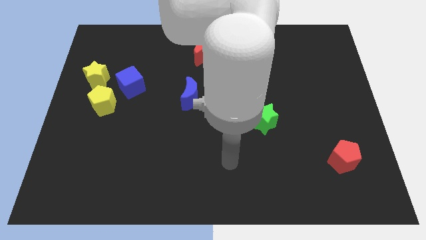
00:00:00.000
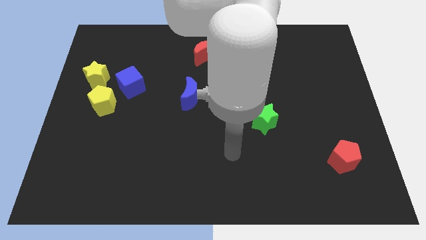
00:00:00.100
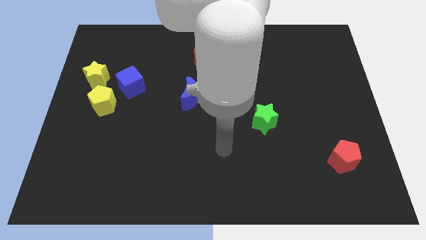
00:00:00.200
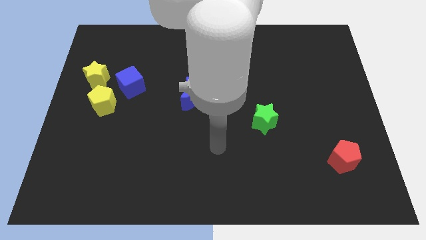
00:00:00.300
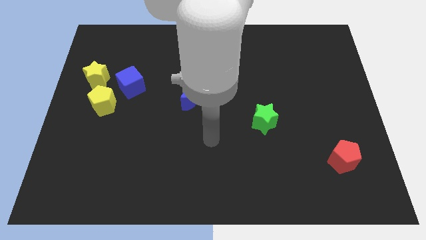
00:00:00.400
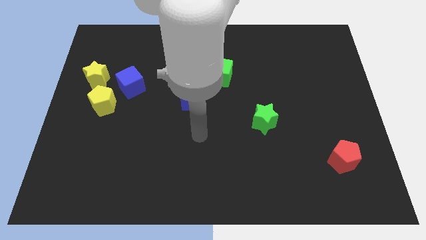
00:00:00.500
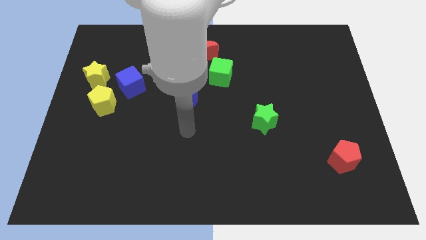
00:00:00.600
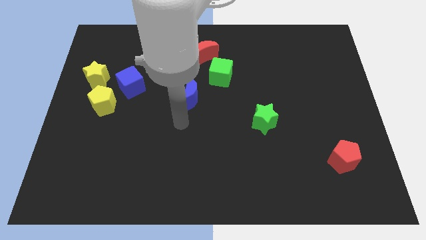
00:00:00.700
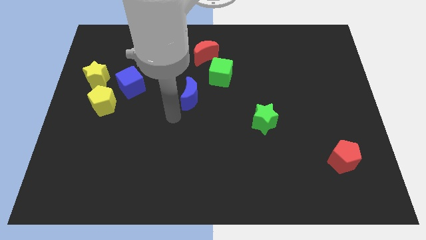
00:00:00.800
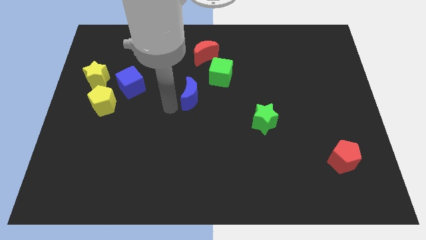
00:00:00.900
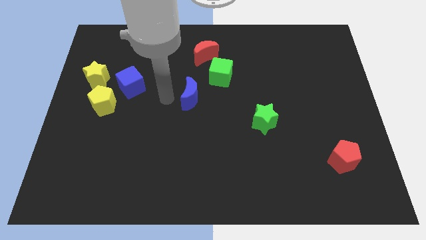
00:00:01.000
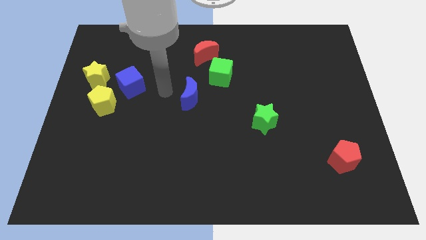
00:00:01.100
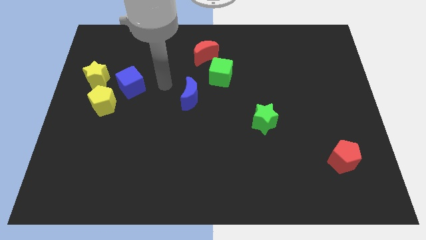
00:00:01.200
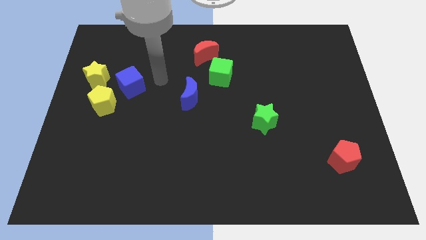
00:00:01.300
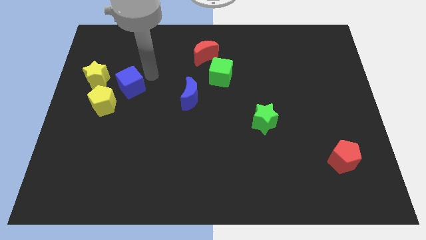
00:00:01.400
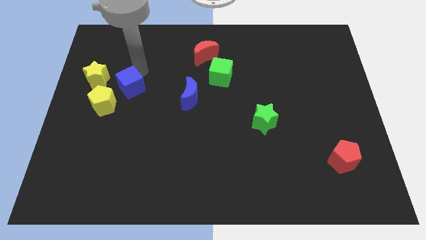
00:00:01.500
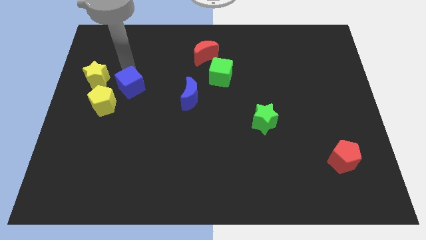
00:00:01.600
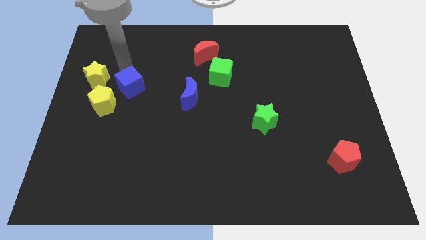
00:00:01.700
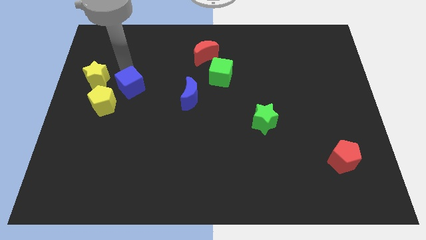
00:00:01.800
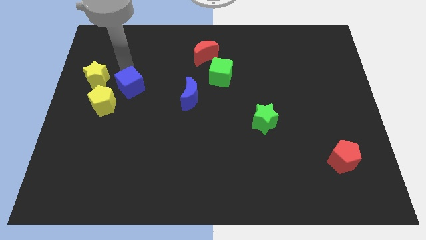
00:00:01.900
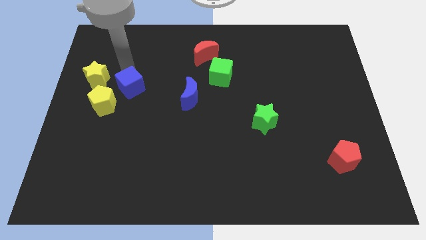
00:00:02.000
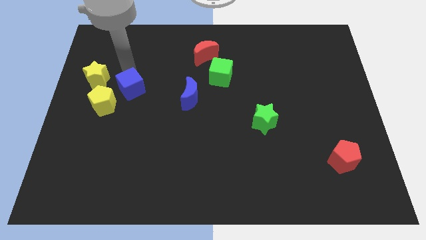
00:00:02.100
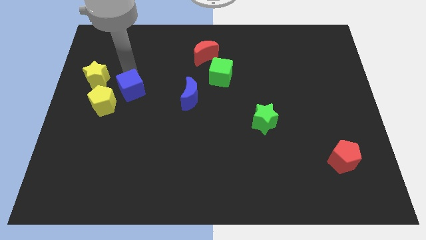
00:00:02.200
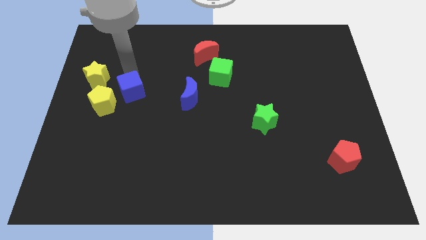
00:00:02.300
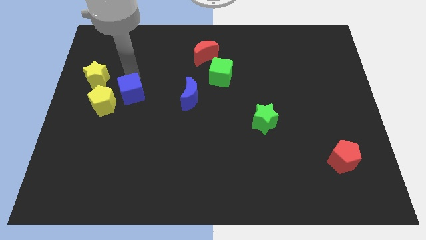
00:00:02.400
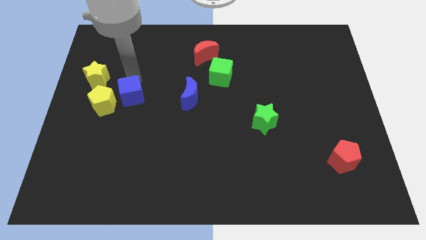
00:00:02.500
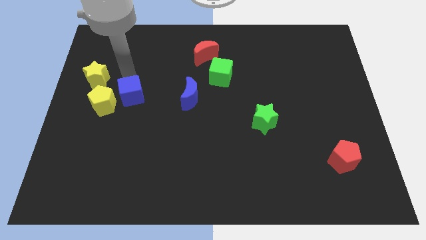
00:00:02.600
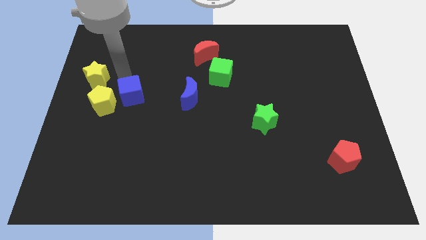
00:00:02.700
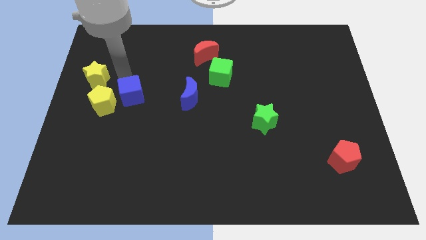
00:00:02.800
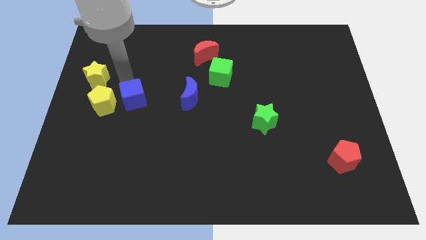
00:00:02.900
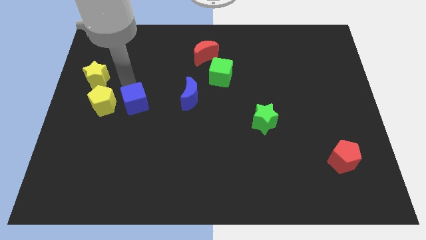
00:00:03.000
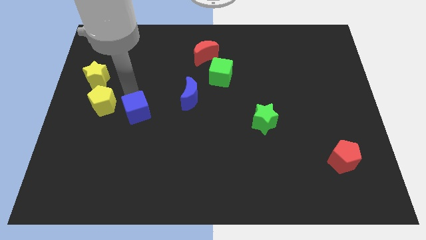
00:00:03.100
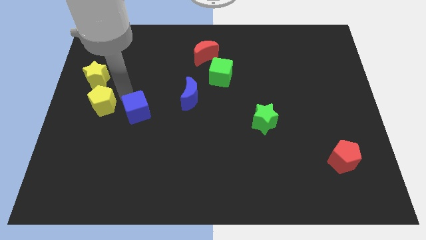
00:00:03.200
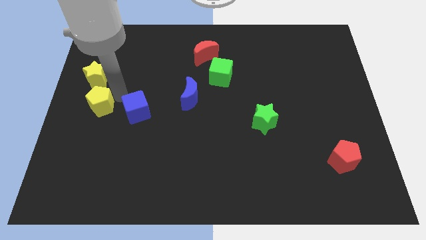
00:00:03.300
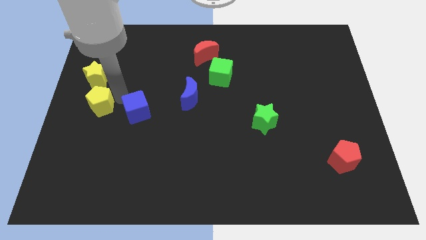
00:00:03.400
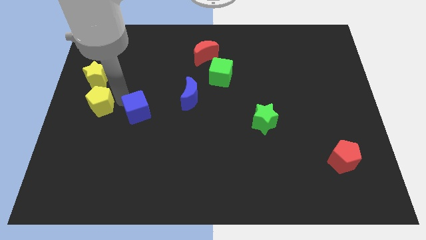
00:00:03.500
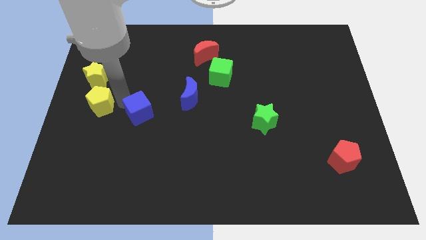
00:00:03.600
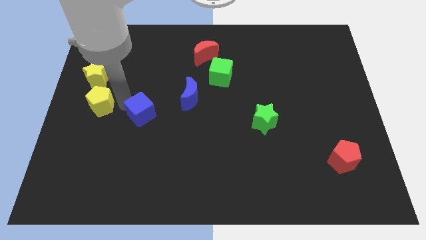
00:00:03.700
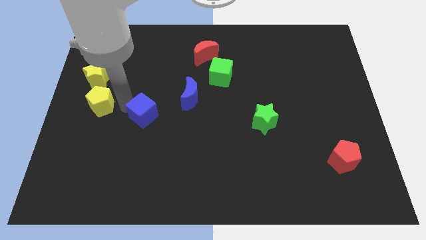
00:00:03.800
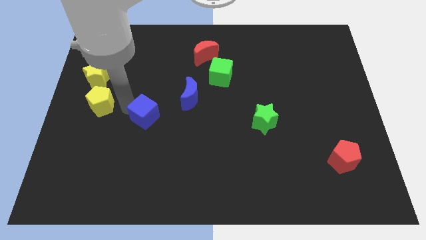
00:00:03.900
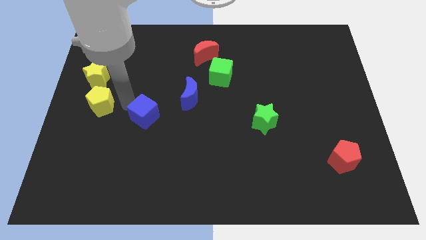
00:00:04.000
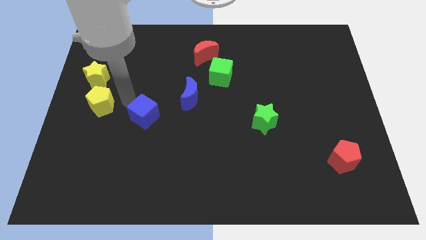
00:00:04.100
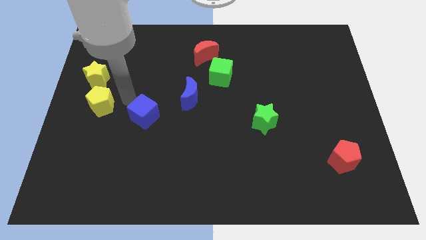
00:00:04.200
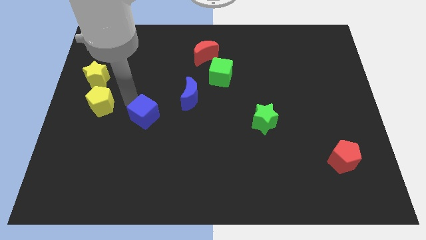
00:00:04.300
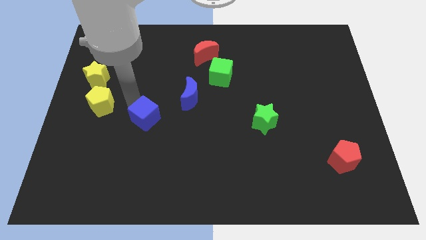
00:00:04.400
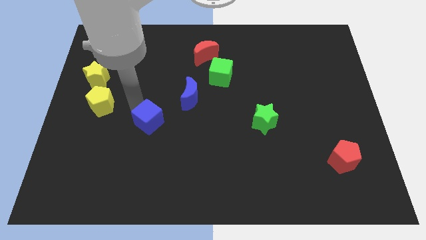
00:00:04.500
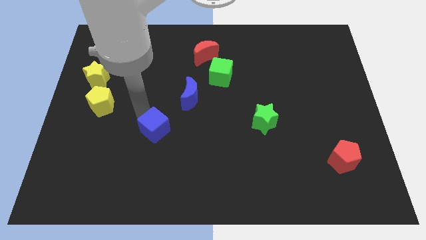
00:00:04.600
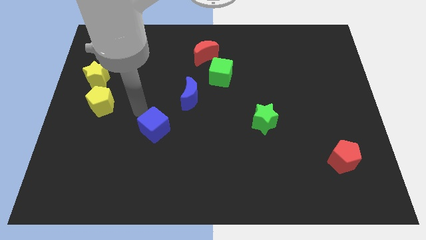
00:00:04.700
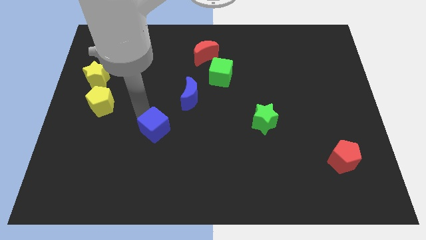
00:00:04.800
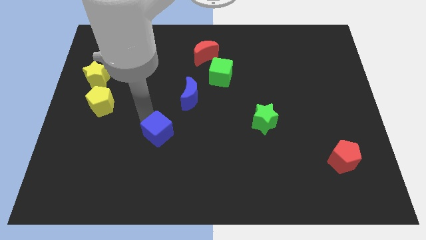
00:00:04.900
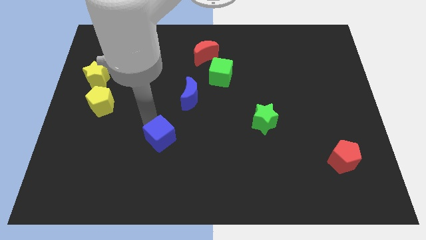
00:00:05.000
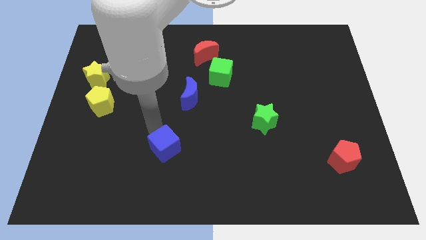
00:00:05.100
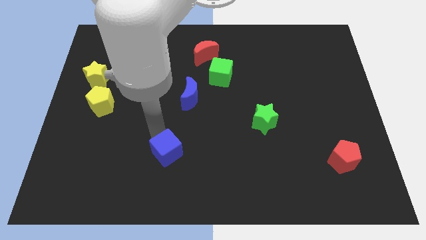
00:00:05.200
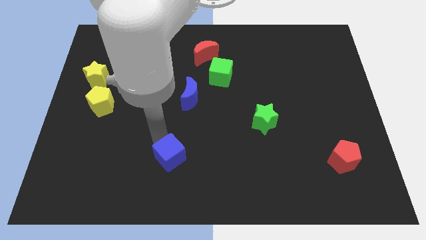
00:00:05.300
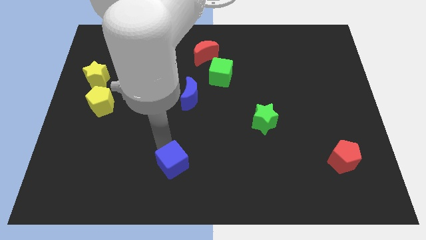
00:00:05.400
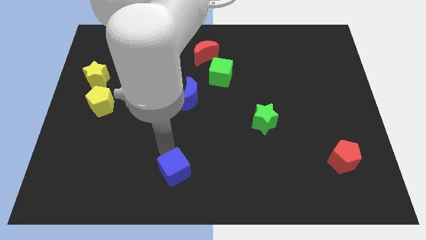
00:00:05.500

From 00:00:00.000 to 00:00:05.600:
push the blue cube to the bottom side

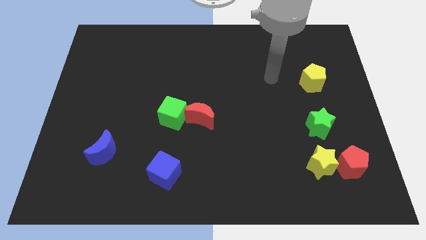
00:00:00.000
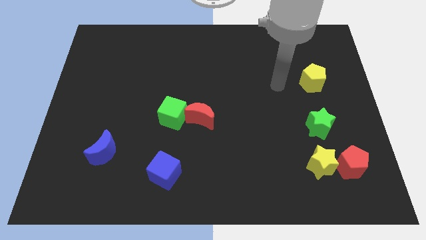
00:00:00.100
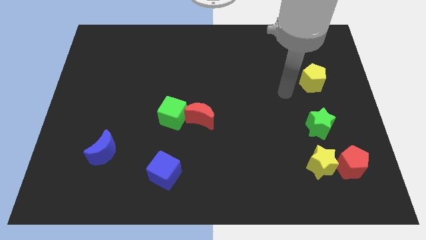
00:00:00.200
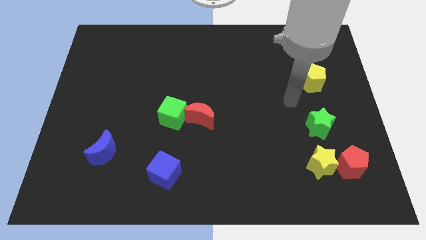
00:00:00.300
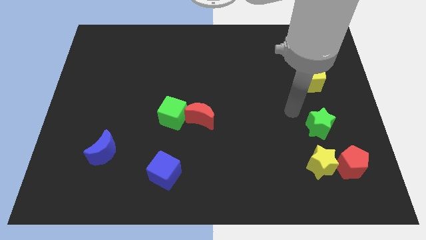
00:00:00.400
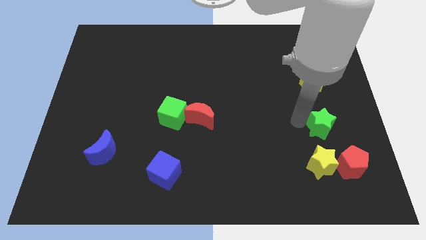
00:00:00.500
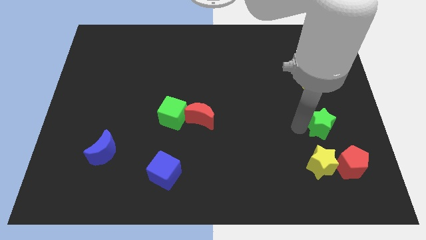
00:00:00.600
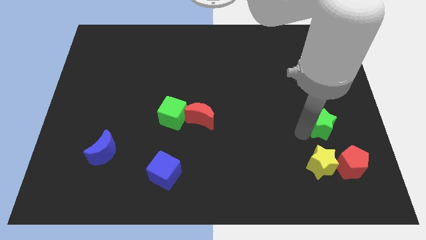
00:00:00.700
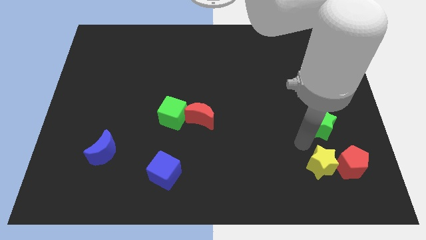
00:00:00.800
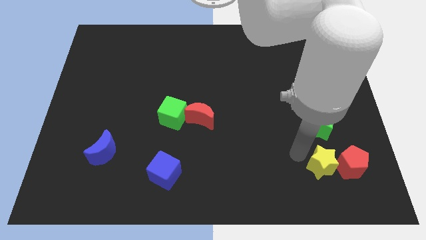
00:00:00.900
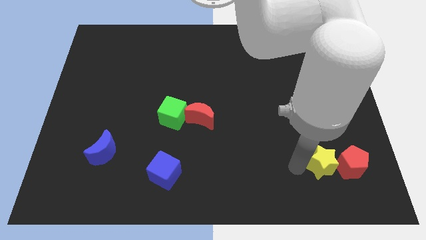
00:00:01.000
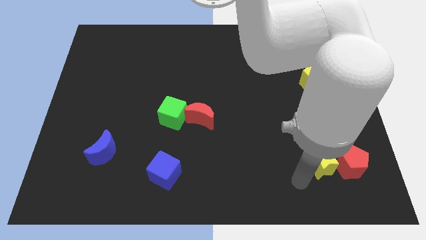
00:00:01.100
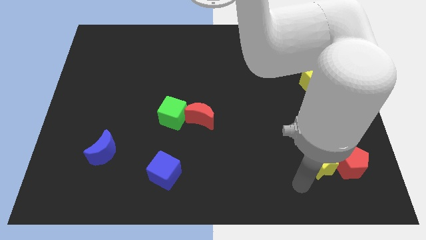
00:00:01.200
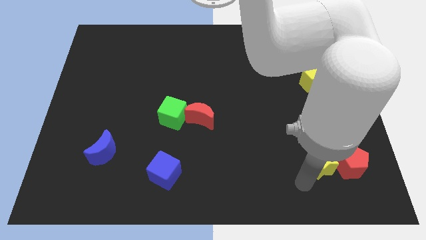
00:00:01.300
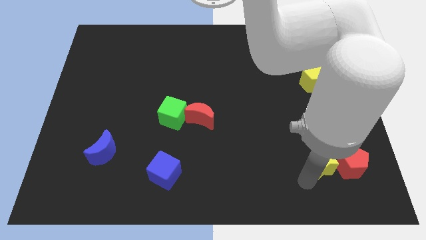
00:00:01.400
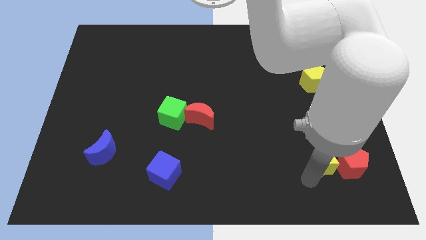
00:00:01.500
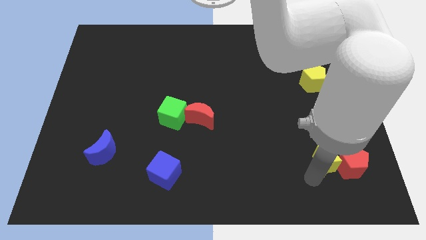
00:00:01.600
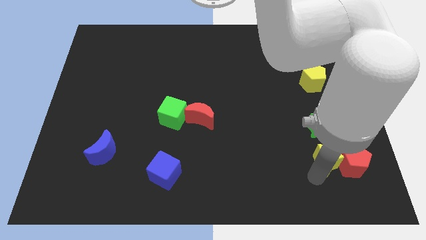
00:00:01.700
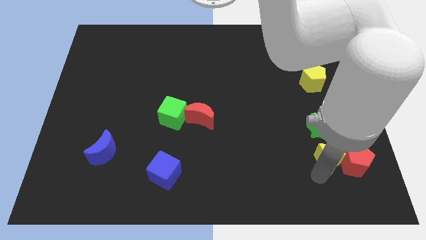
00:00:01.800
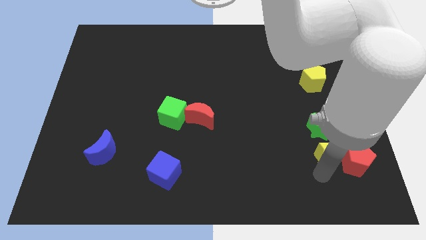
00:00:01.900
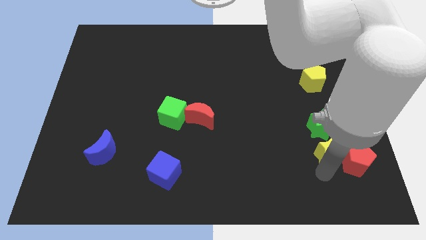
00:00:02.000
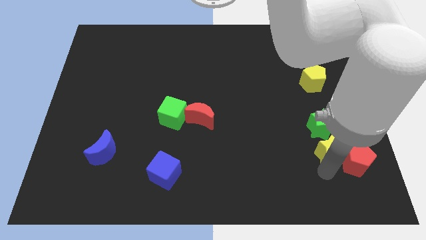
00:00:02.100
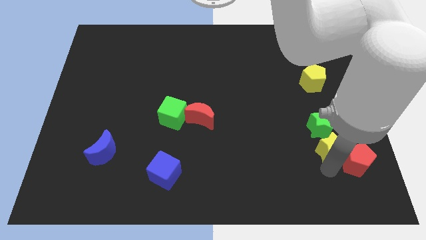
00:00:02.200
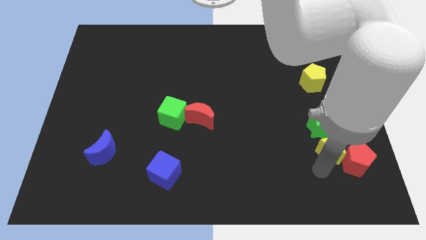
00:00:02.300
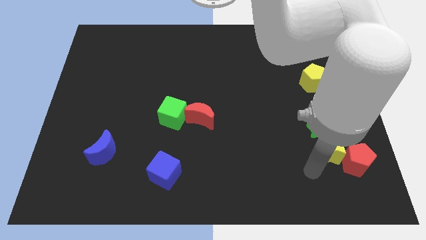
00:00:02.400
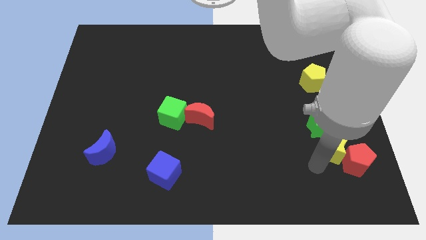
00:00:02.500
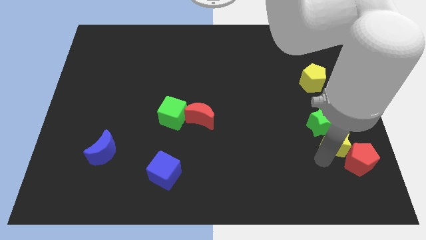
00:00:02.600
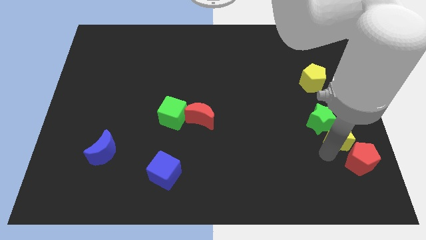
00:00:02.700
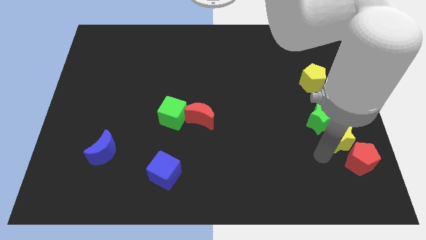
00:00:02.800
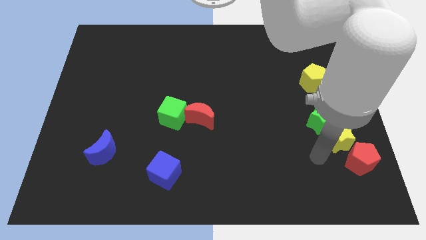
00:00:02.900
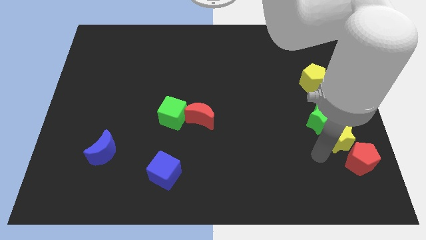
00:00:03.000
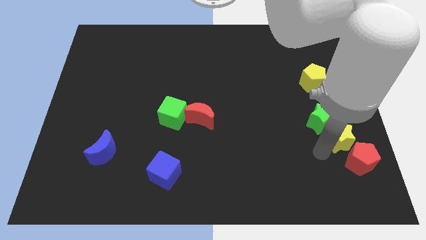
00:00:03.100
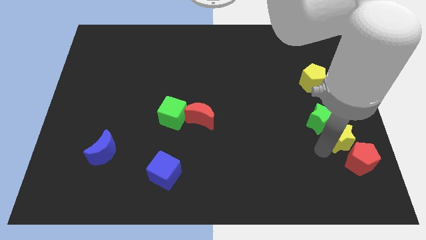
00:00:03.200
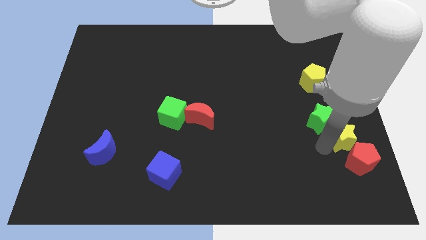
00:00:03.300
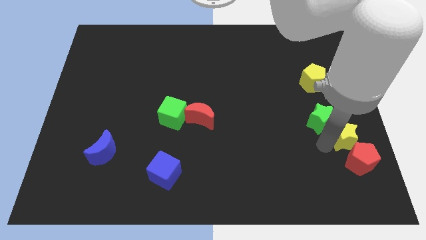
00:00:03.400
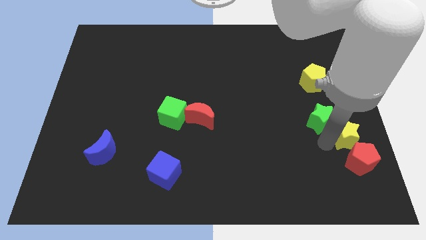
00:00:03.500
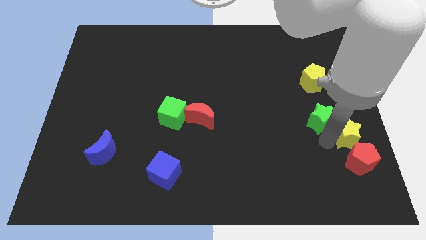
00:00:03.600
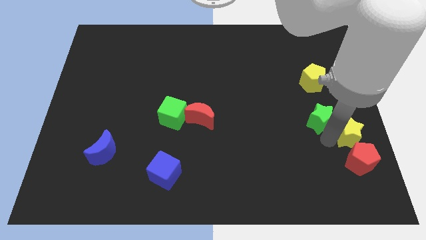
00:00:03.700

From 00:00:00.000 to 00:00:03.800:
push the yellow star to the center right
